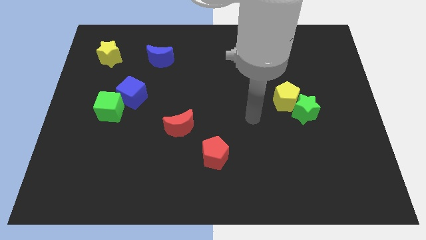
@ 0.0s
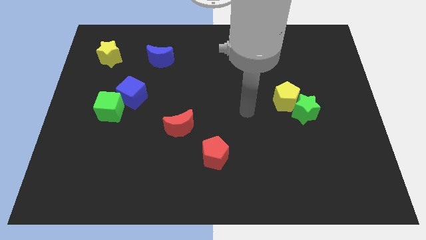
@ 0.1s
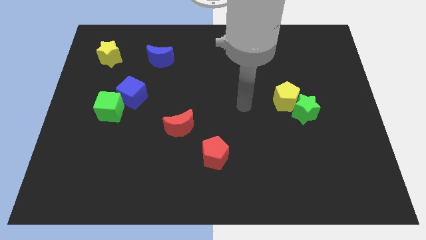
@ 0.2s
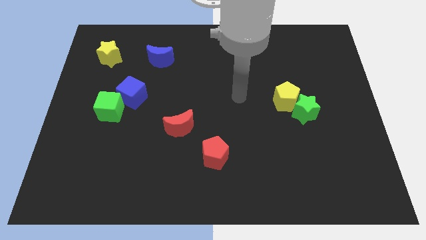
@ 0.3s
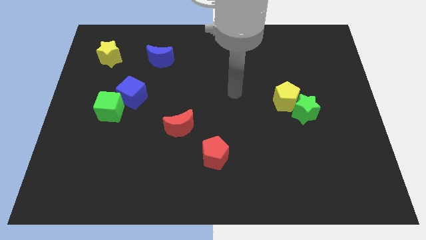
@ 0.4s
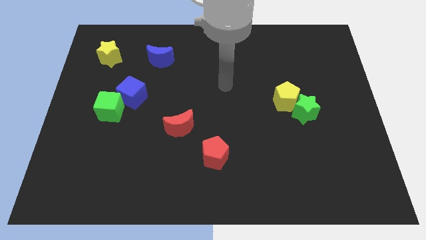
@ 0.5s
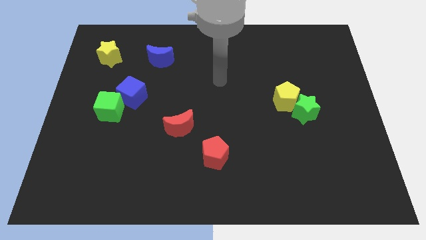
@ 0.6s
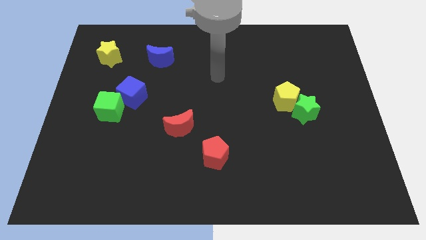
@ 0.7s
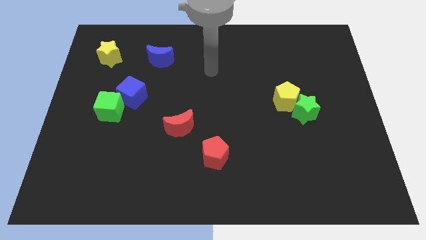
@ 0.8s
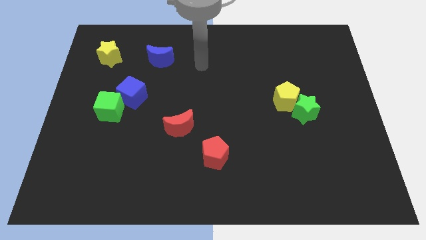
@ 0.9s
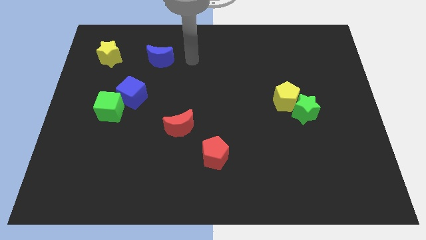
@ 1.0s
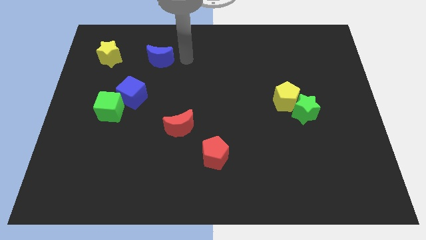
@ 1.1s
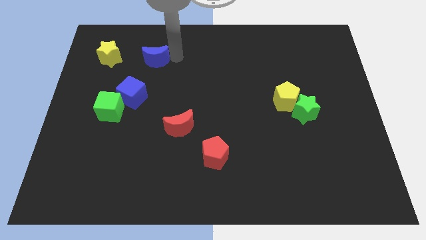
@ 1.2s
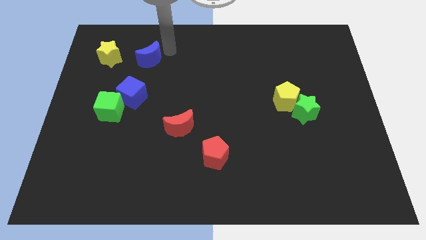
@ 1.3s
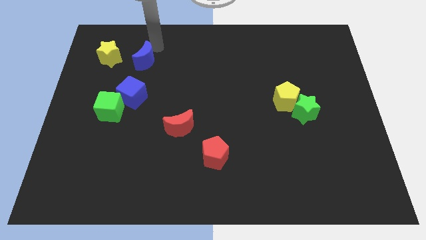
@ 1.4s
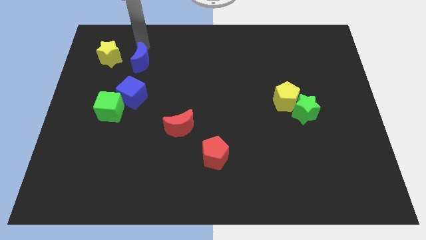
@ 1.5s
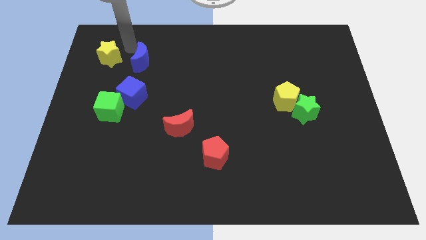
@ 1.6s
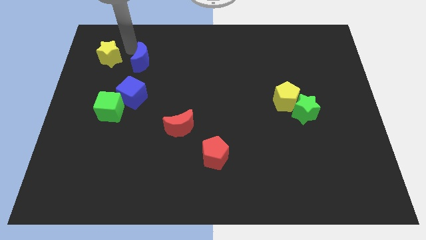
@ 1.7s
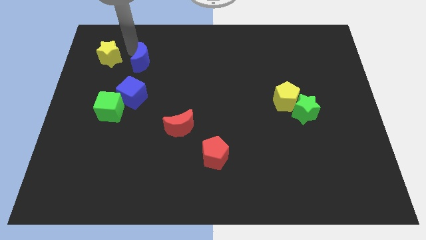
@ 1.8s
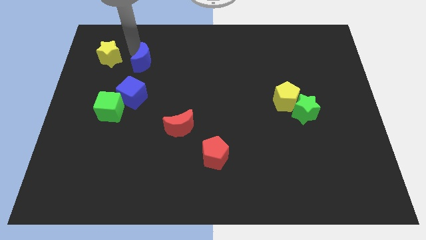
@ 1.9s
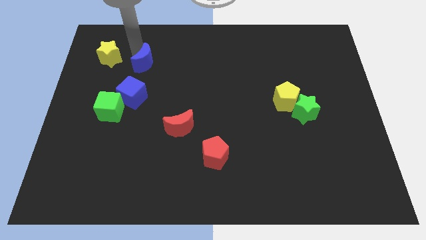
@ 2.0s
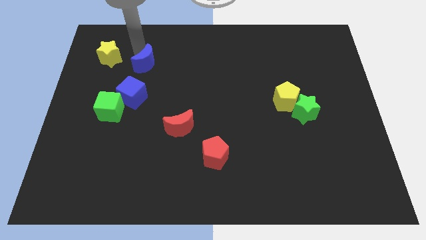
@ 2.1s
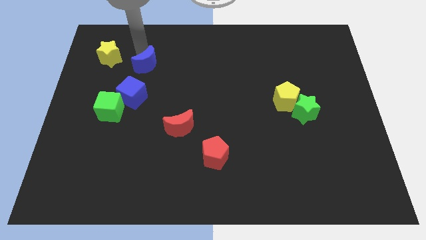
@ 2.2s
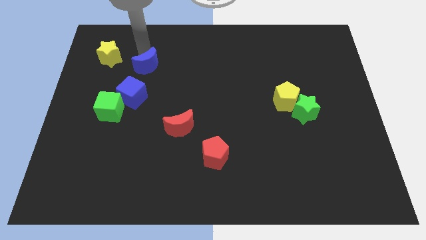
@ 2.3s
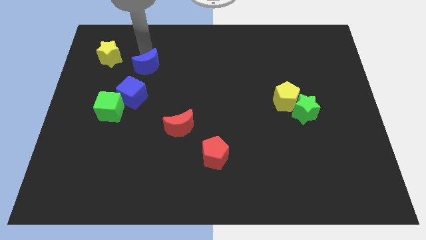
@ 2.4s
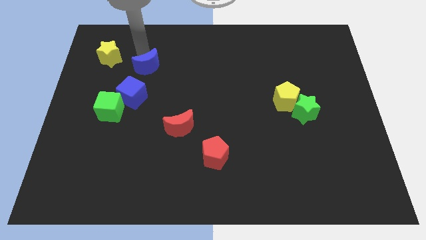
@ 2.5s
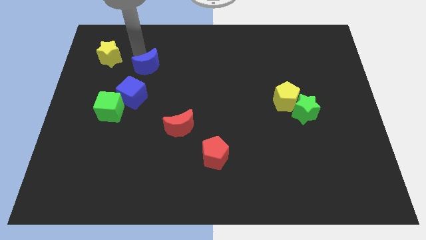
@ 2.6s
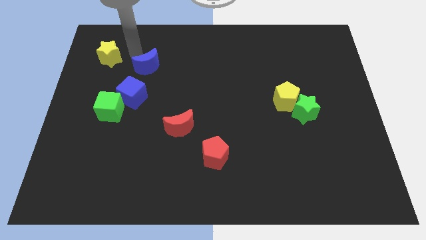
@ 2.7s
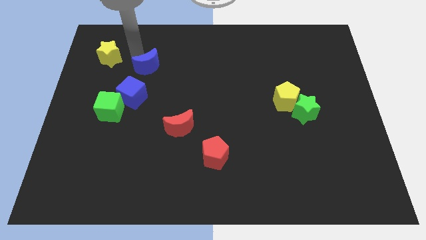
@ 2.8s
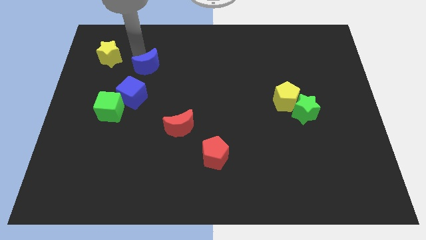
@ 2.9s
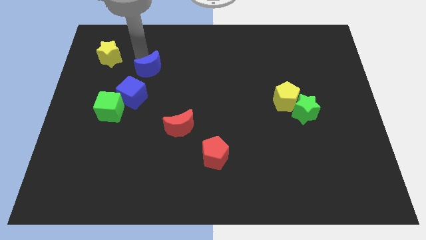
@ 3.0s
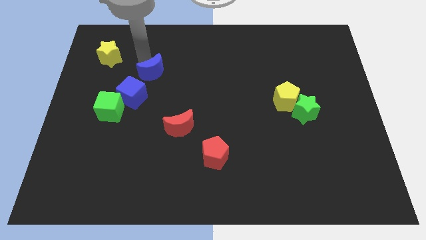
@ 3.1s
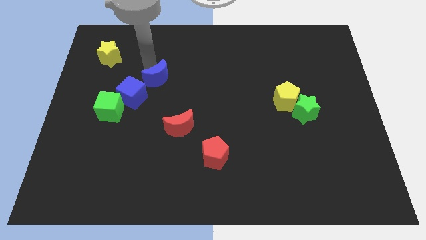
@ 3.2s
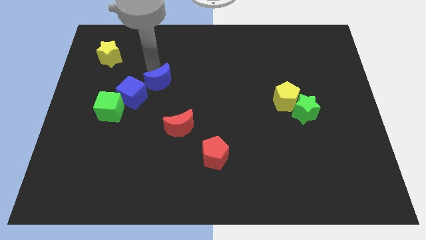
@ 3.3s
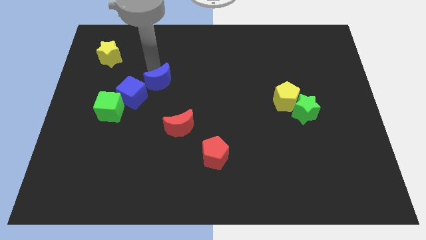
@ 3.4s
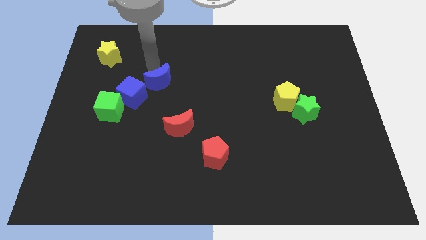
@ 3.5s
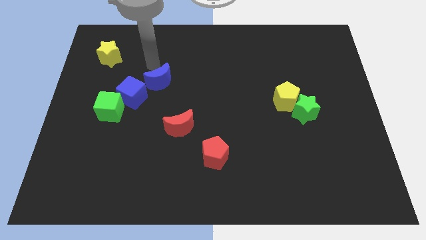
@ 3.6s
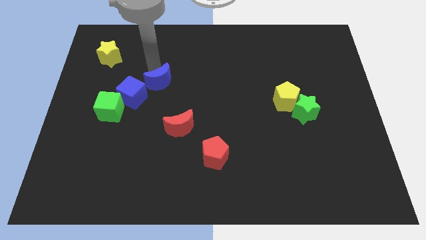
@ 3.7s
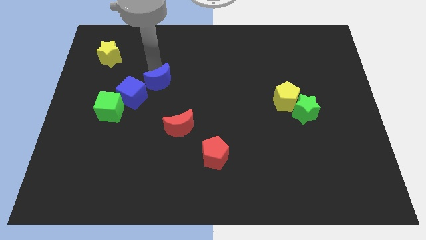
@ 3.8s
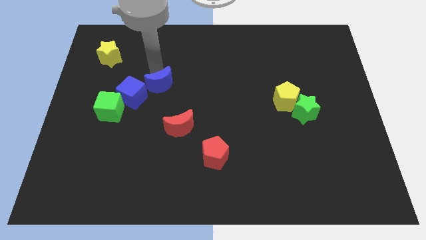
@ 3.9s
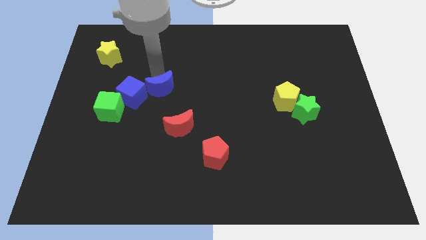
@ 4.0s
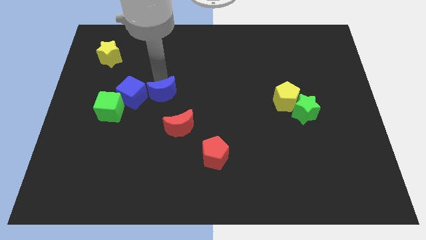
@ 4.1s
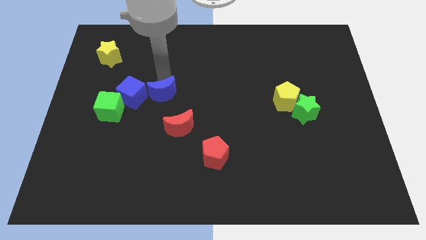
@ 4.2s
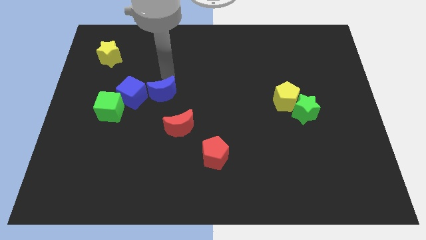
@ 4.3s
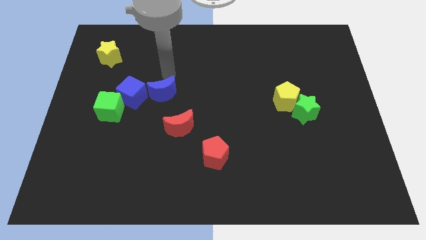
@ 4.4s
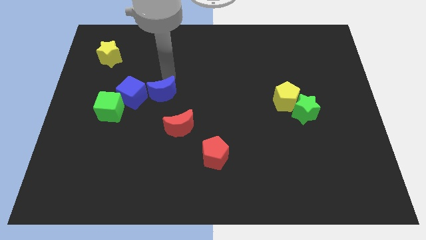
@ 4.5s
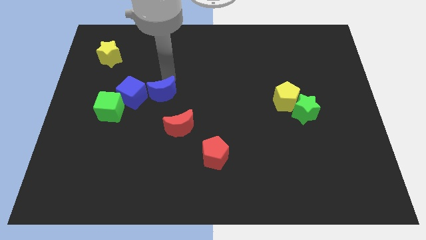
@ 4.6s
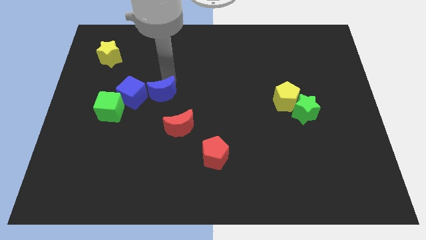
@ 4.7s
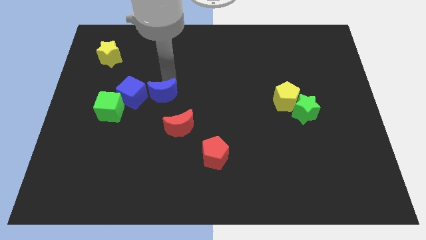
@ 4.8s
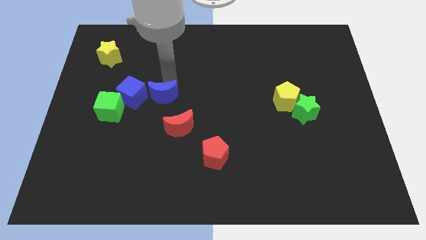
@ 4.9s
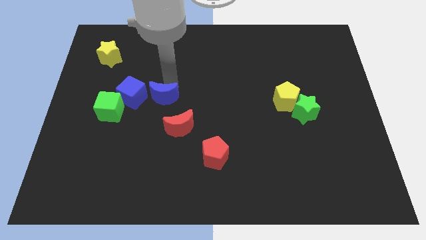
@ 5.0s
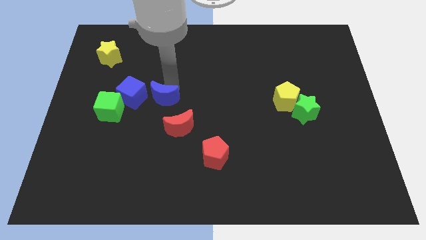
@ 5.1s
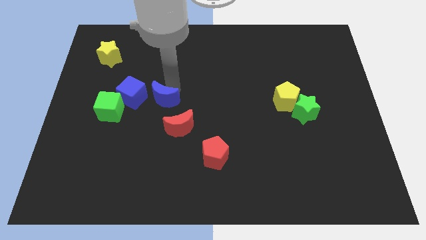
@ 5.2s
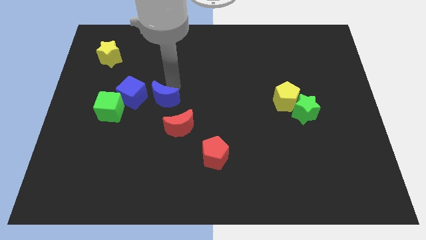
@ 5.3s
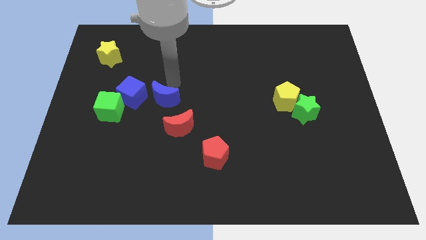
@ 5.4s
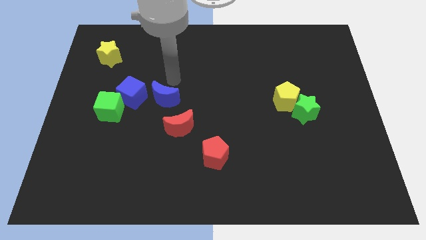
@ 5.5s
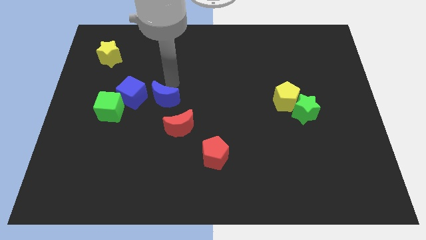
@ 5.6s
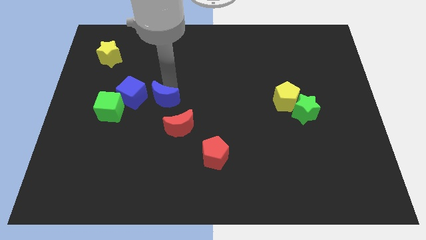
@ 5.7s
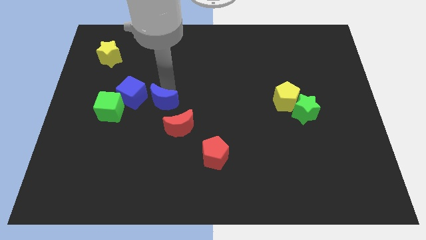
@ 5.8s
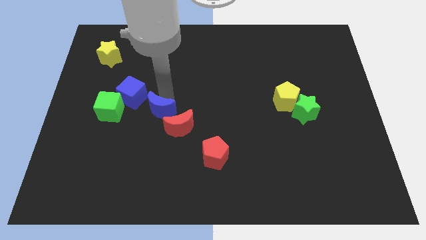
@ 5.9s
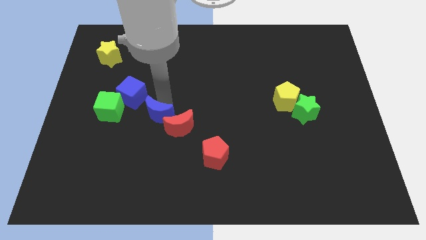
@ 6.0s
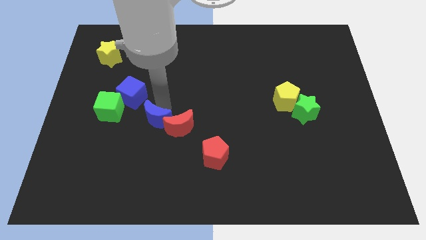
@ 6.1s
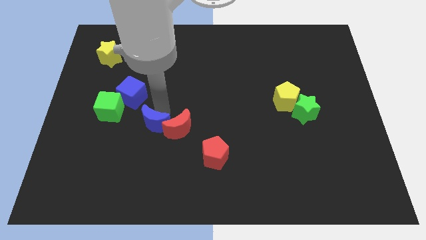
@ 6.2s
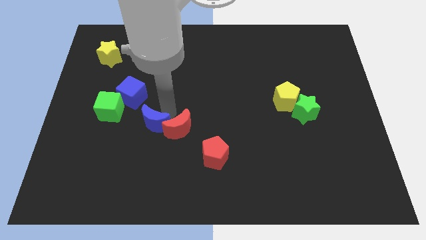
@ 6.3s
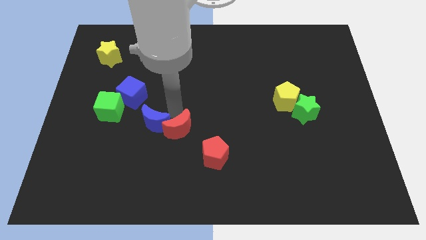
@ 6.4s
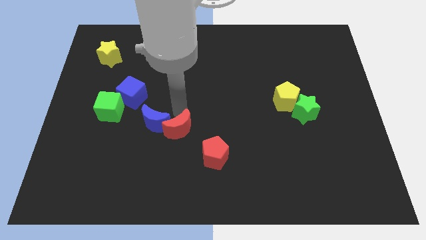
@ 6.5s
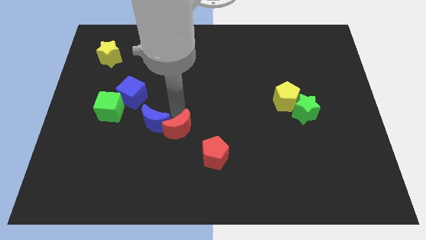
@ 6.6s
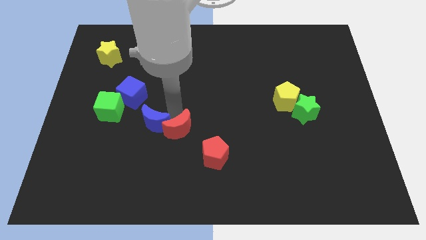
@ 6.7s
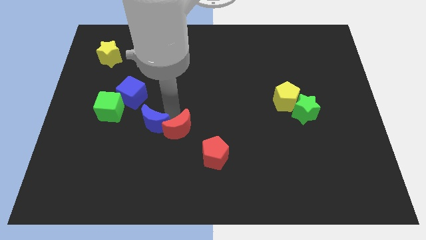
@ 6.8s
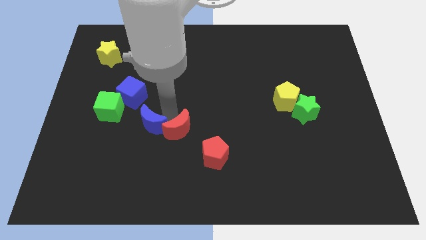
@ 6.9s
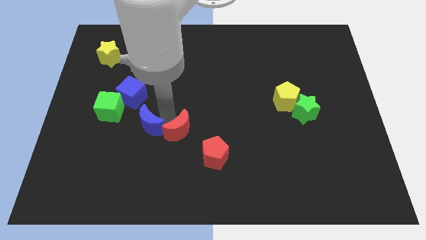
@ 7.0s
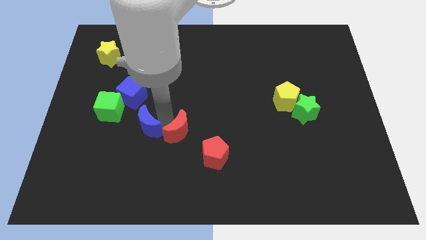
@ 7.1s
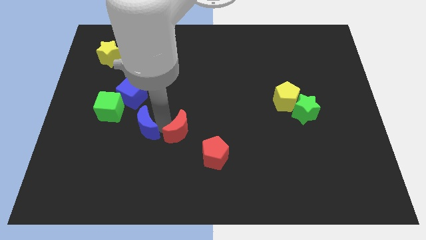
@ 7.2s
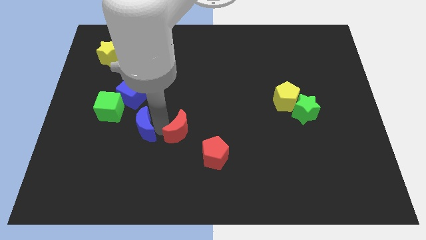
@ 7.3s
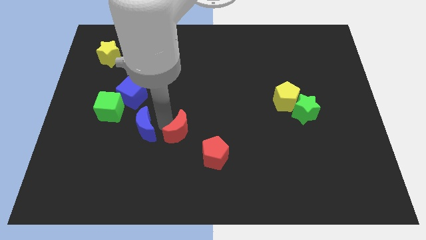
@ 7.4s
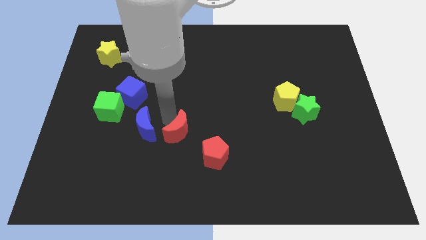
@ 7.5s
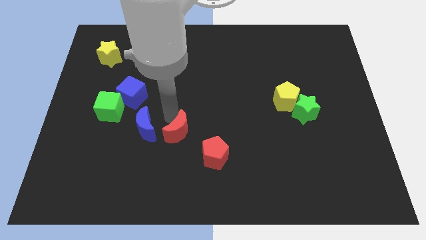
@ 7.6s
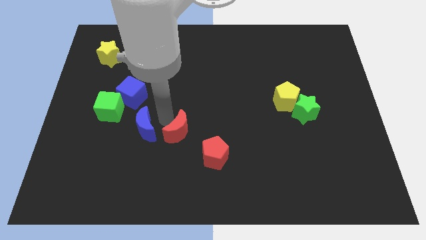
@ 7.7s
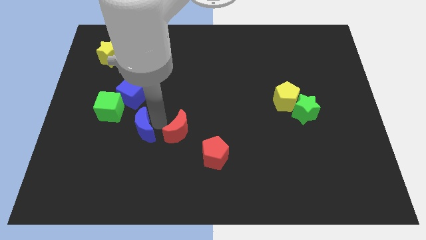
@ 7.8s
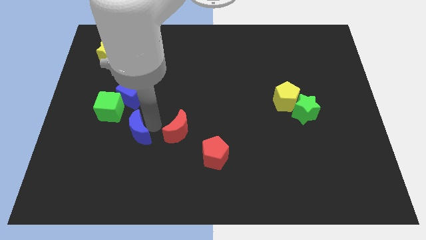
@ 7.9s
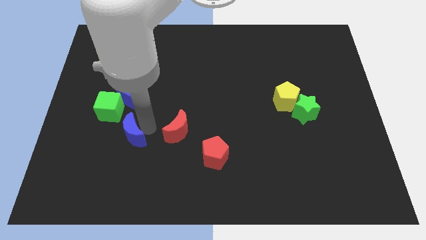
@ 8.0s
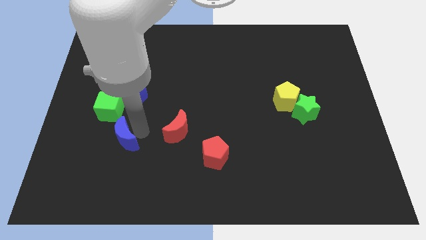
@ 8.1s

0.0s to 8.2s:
slide the blue moon below the green cube
